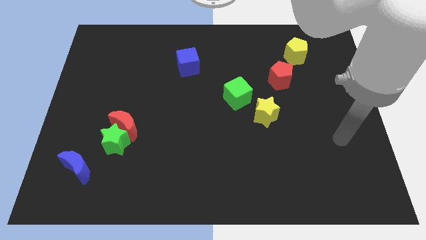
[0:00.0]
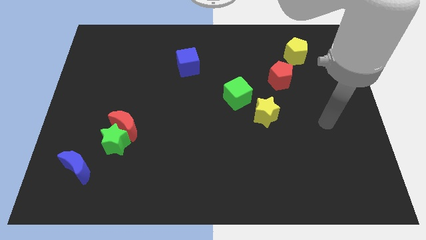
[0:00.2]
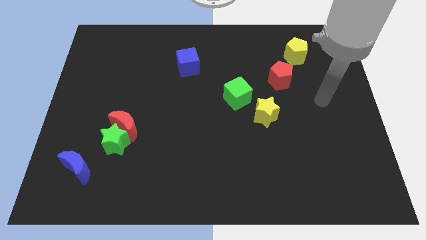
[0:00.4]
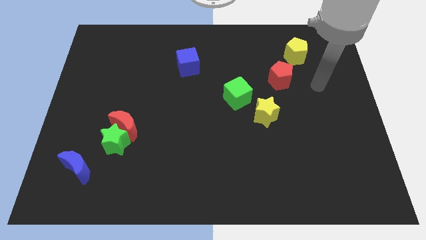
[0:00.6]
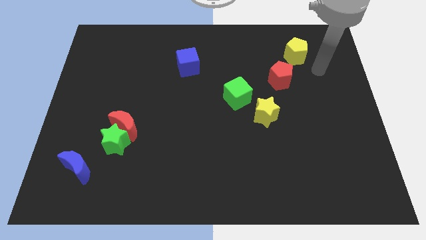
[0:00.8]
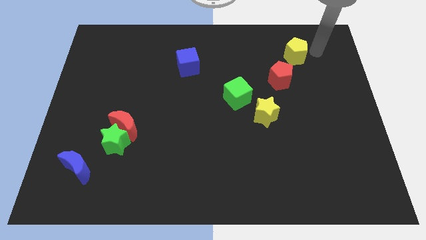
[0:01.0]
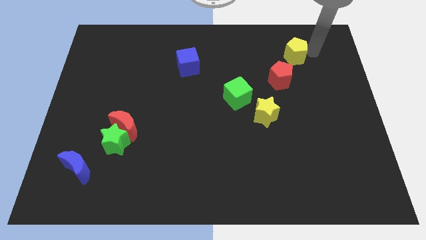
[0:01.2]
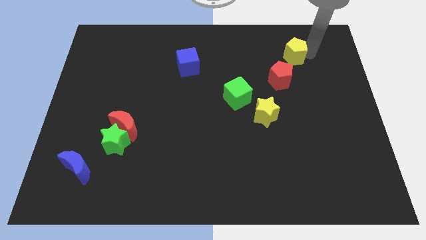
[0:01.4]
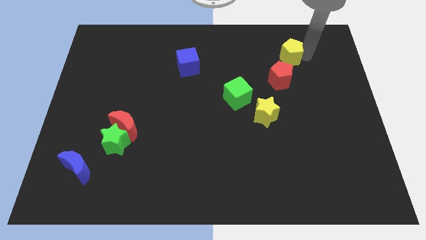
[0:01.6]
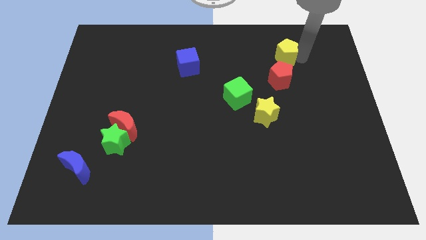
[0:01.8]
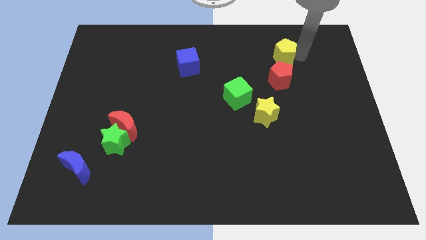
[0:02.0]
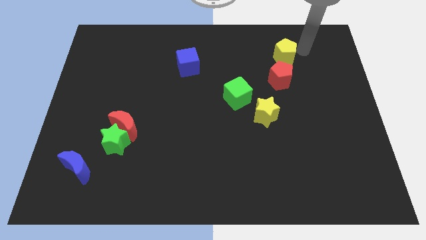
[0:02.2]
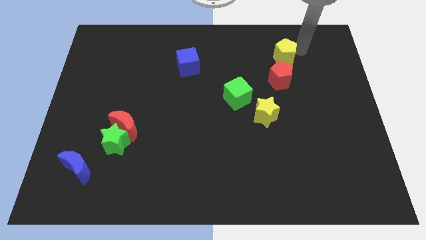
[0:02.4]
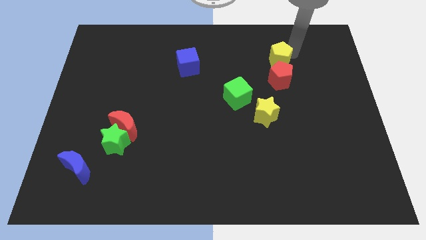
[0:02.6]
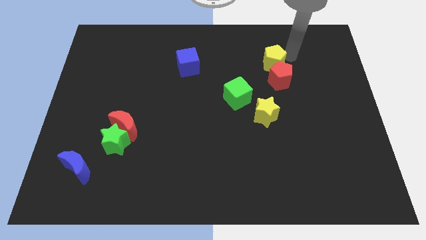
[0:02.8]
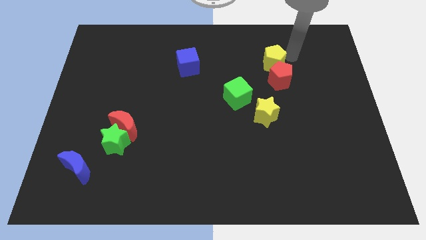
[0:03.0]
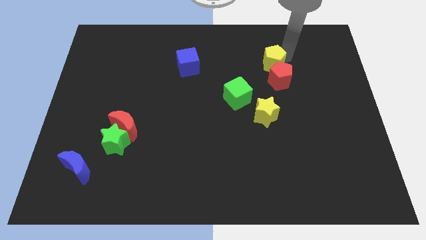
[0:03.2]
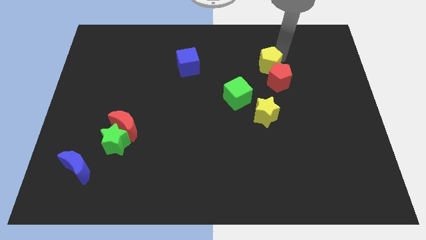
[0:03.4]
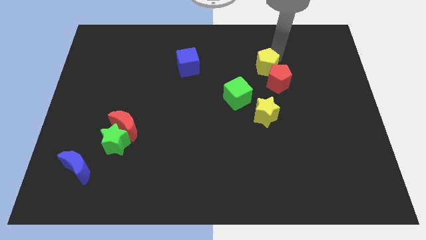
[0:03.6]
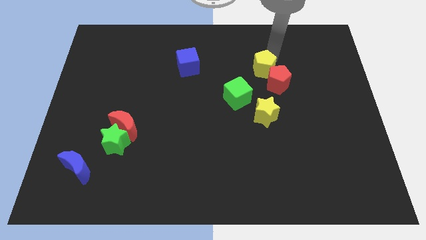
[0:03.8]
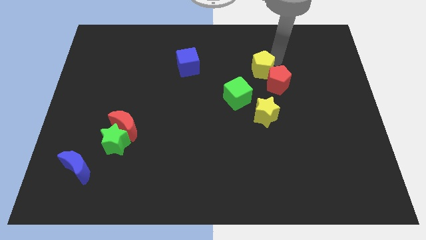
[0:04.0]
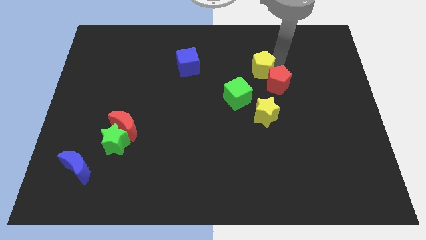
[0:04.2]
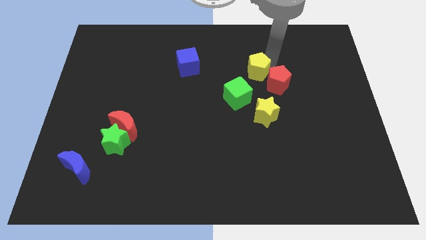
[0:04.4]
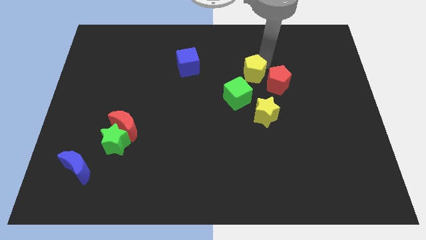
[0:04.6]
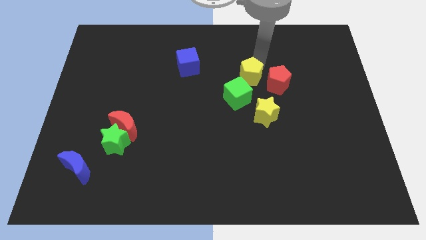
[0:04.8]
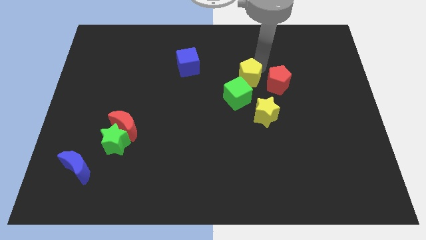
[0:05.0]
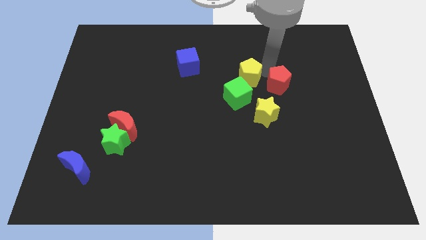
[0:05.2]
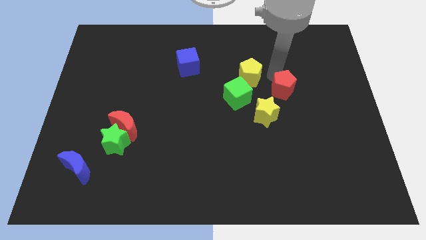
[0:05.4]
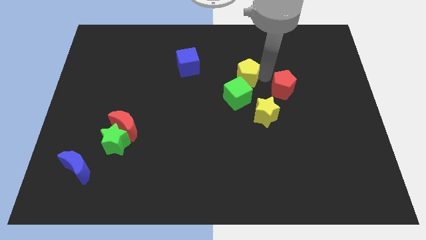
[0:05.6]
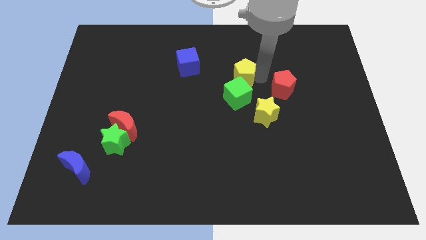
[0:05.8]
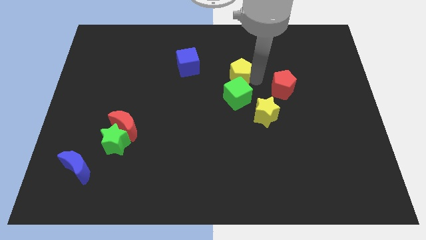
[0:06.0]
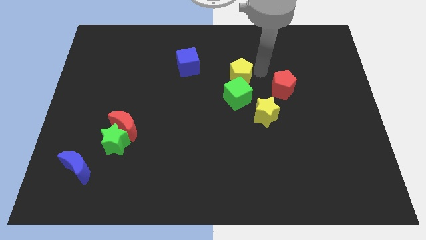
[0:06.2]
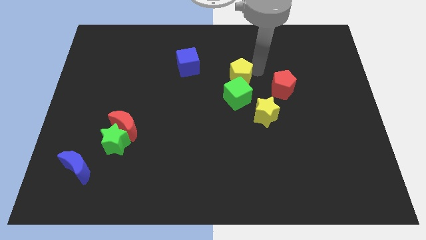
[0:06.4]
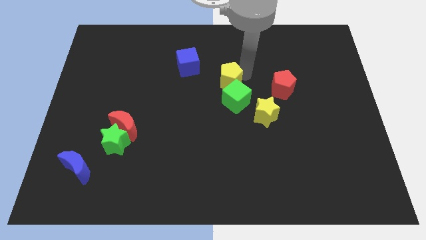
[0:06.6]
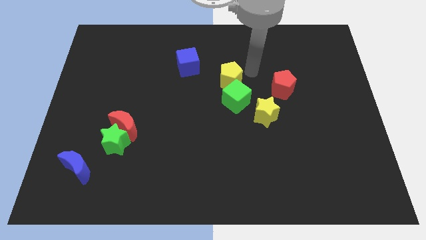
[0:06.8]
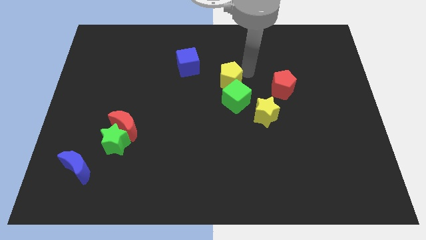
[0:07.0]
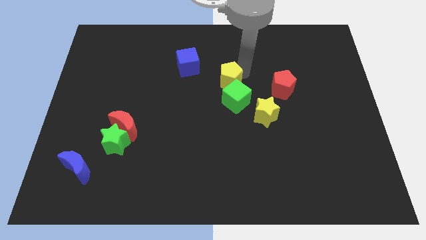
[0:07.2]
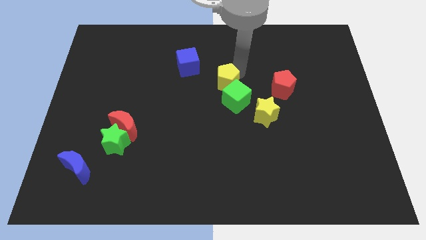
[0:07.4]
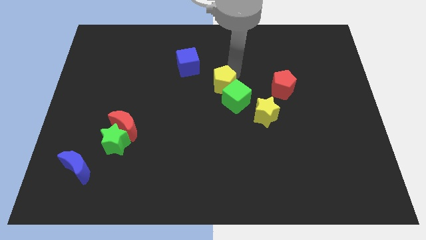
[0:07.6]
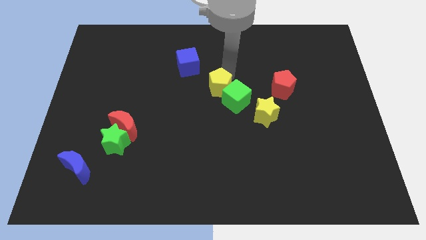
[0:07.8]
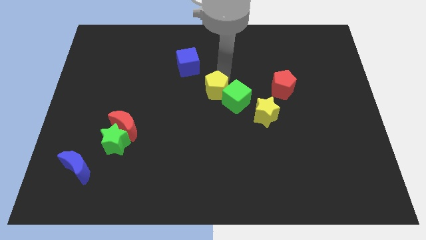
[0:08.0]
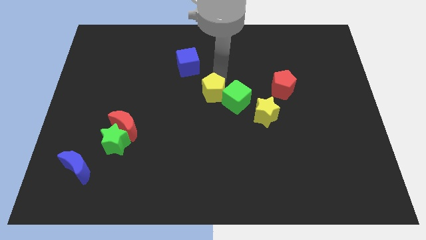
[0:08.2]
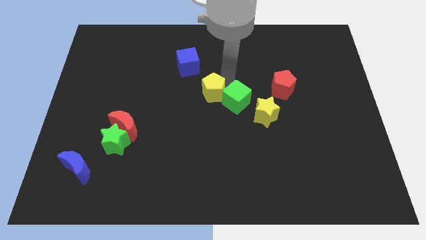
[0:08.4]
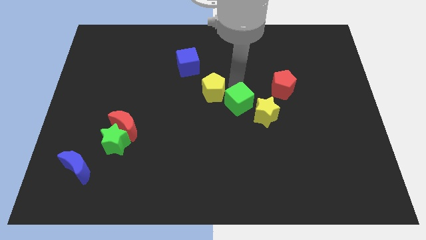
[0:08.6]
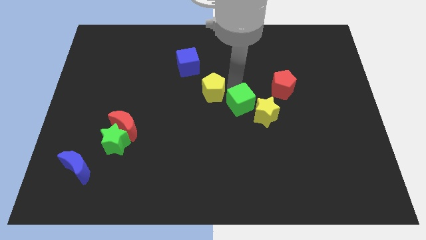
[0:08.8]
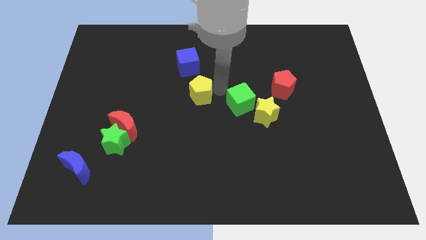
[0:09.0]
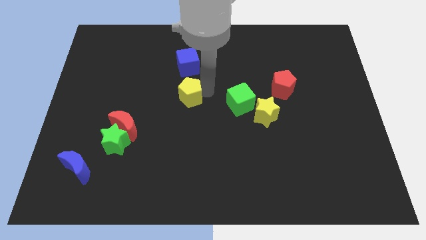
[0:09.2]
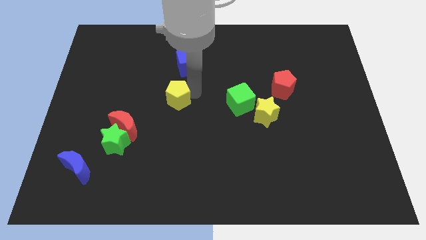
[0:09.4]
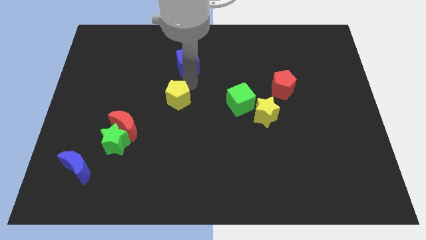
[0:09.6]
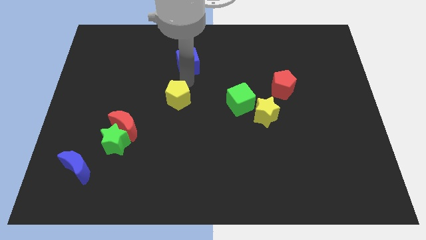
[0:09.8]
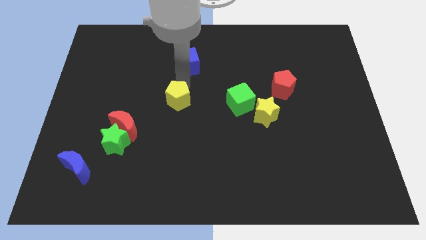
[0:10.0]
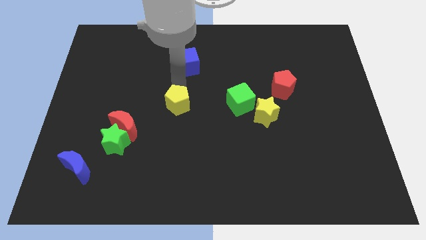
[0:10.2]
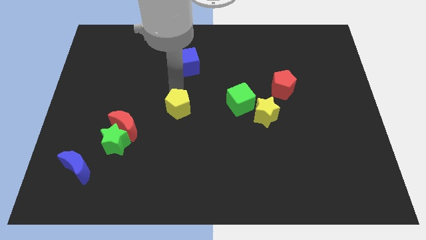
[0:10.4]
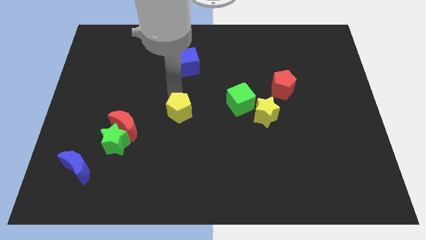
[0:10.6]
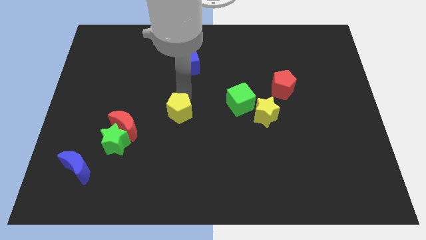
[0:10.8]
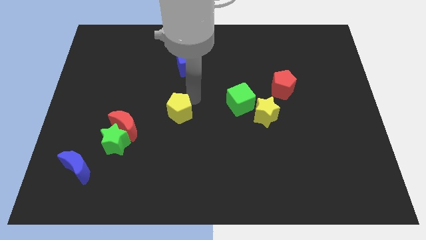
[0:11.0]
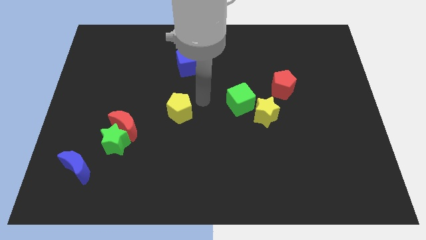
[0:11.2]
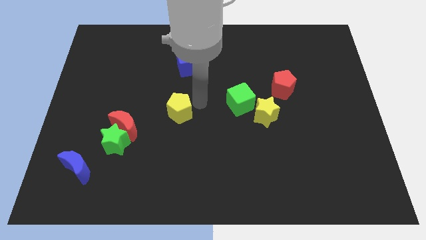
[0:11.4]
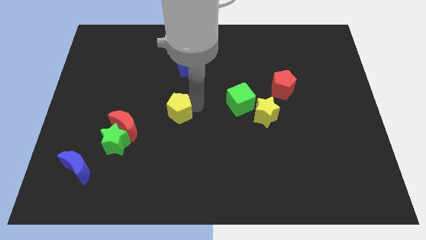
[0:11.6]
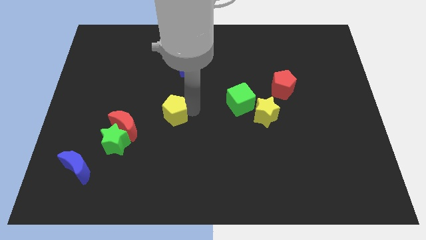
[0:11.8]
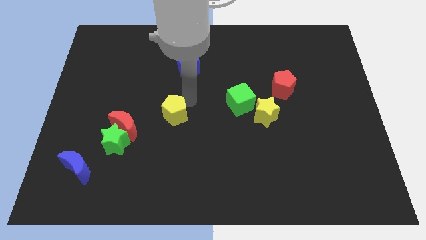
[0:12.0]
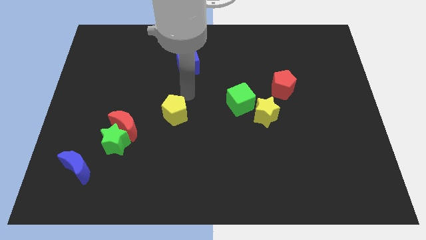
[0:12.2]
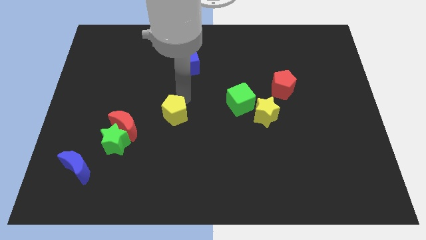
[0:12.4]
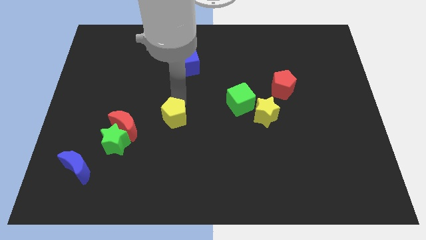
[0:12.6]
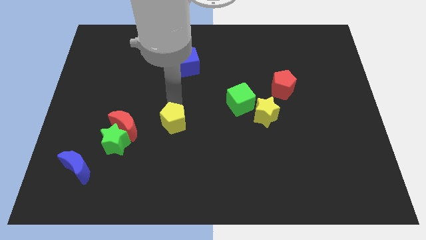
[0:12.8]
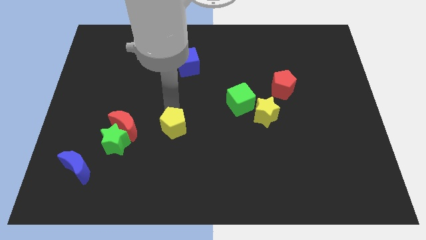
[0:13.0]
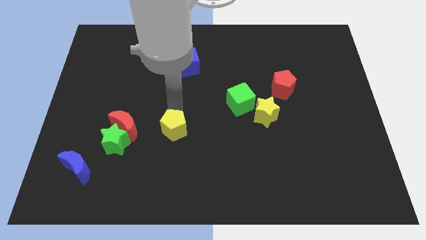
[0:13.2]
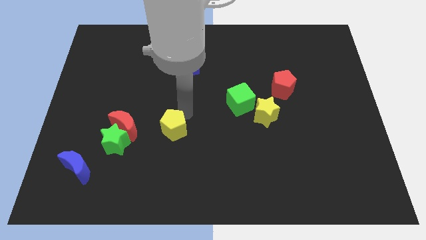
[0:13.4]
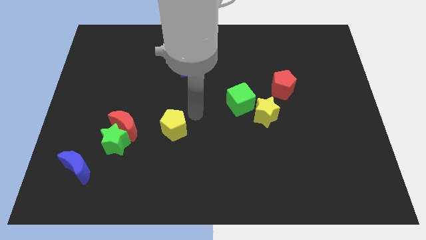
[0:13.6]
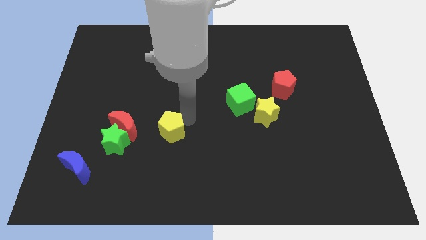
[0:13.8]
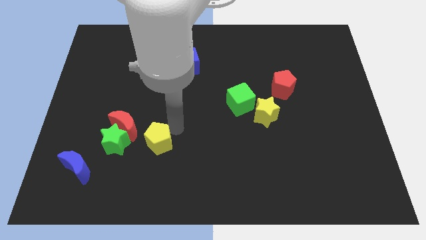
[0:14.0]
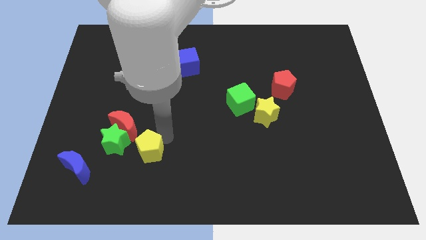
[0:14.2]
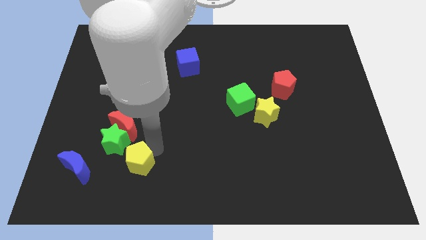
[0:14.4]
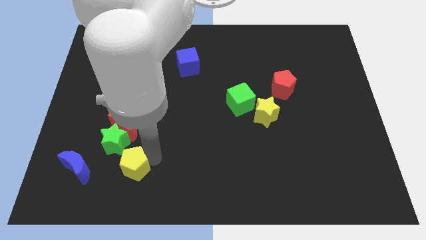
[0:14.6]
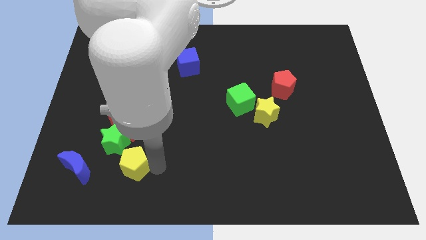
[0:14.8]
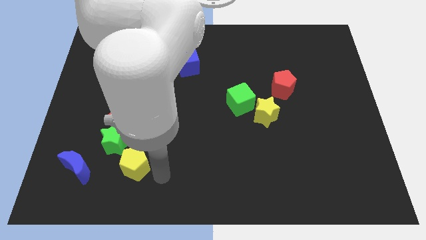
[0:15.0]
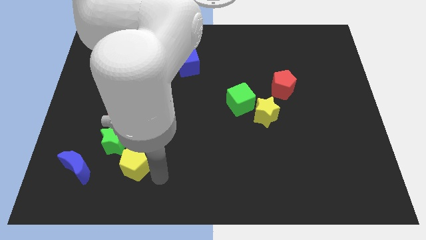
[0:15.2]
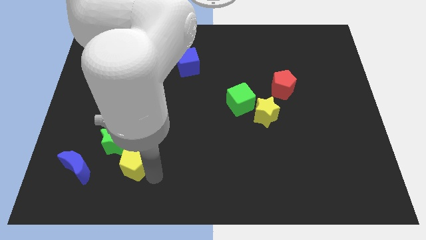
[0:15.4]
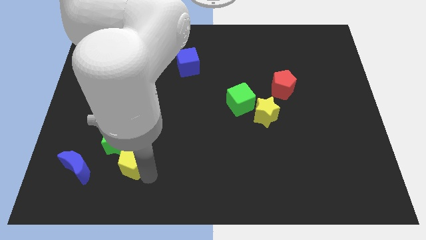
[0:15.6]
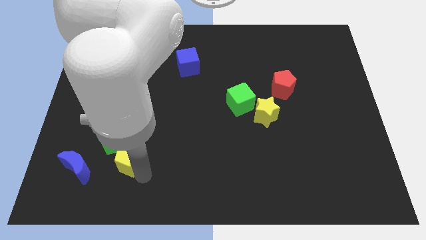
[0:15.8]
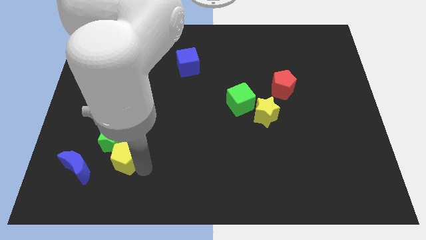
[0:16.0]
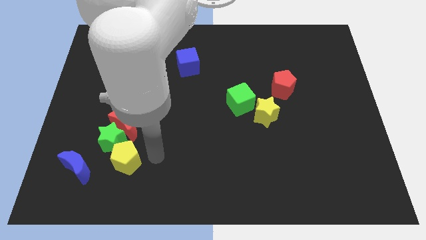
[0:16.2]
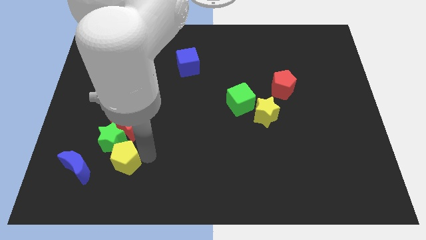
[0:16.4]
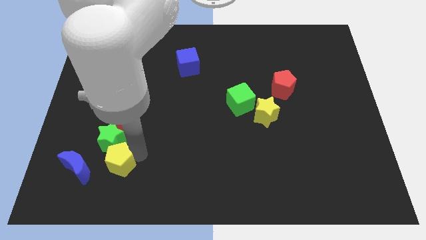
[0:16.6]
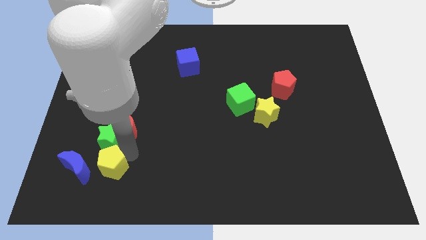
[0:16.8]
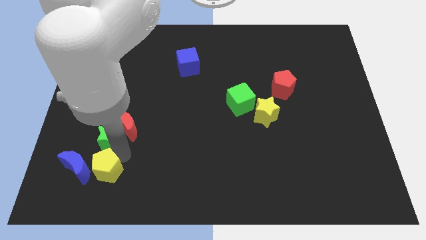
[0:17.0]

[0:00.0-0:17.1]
push the yellow pentagon close to the blue moon
